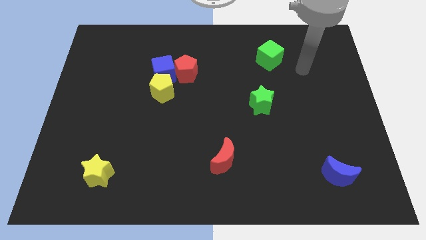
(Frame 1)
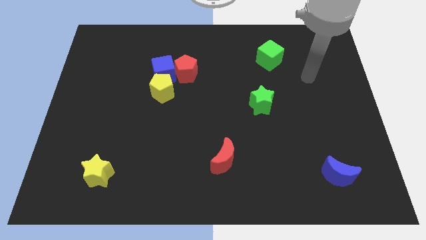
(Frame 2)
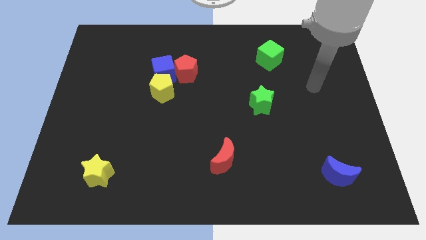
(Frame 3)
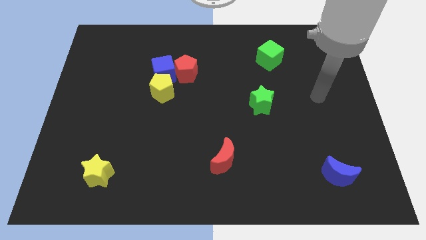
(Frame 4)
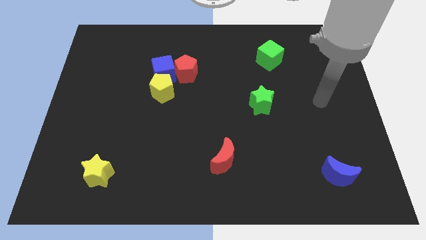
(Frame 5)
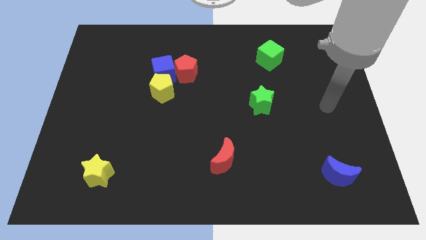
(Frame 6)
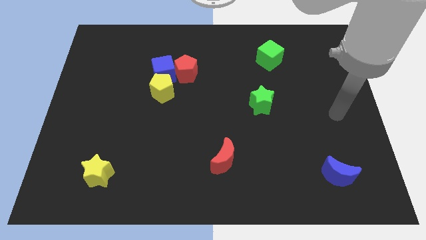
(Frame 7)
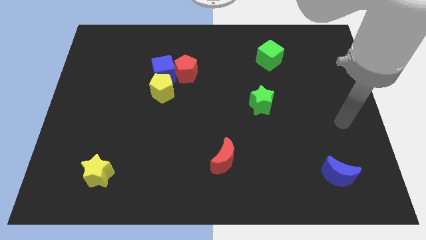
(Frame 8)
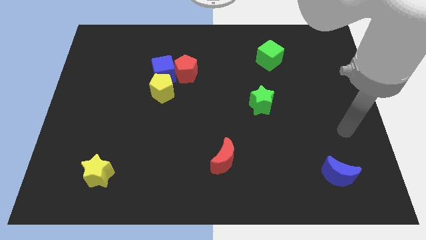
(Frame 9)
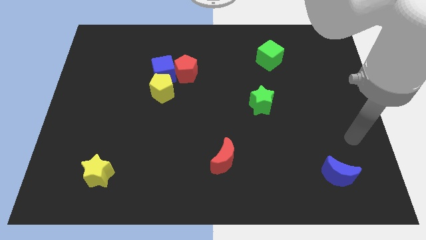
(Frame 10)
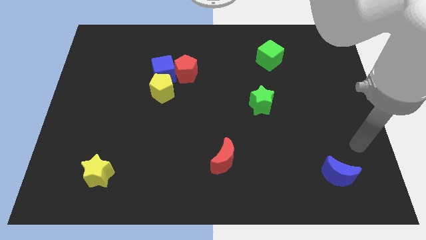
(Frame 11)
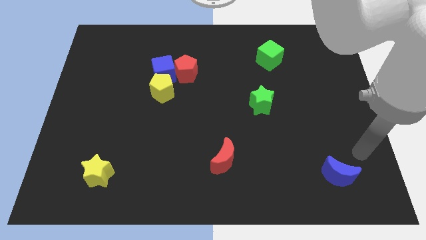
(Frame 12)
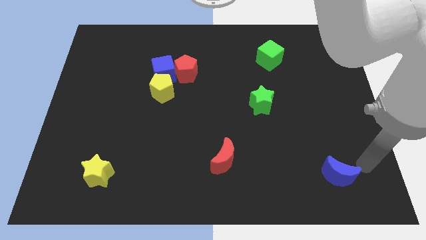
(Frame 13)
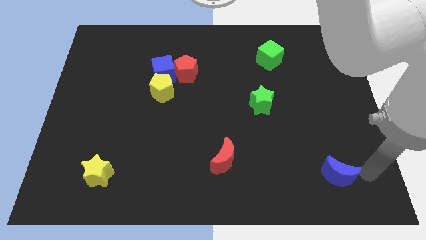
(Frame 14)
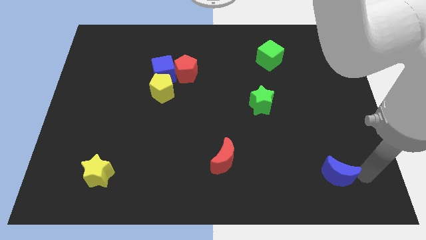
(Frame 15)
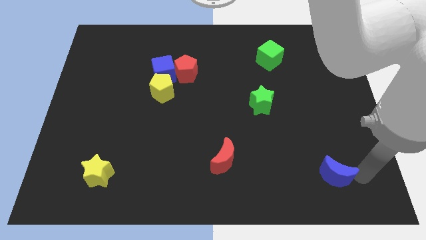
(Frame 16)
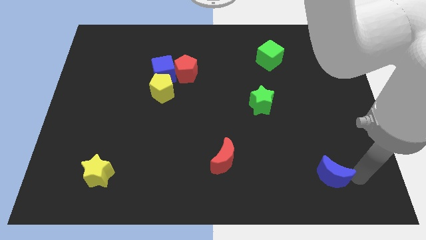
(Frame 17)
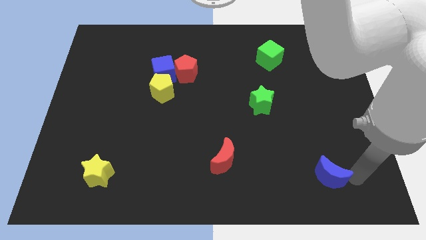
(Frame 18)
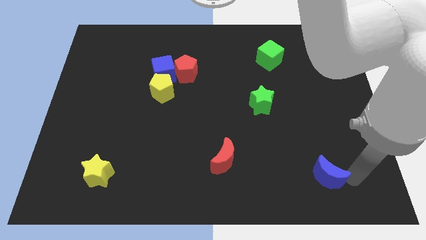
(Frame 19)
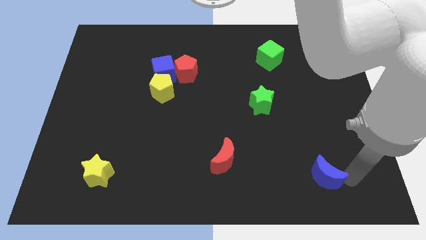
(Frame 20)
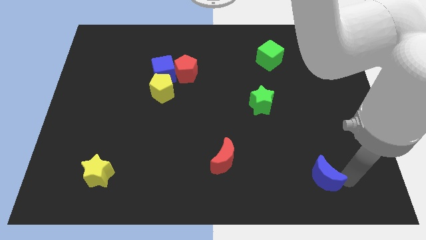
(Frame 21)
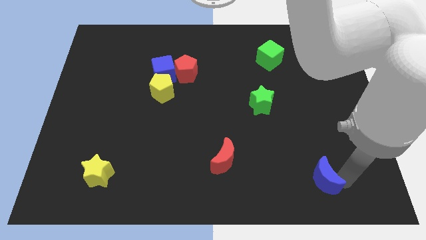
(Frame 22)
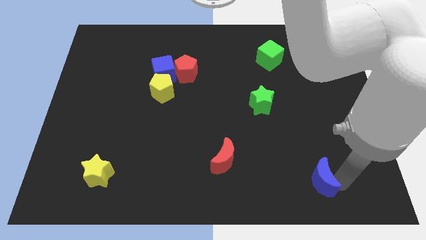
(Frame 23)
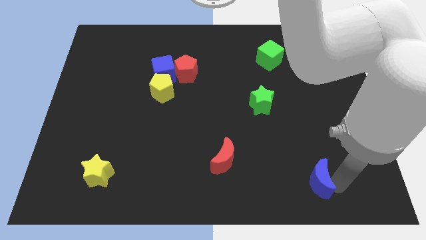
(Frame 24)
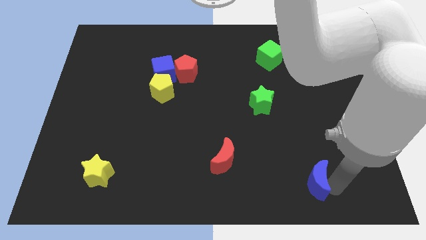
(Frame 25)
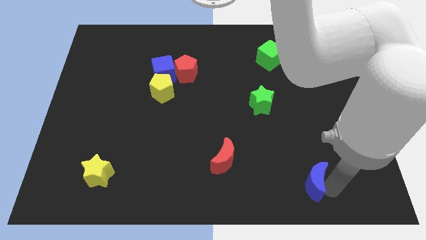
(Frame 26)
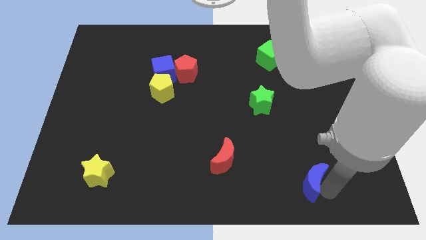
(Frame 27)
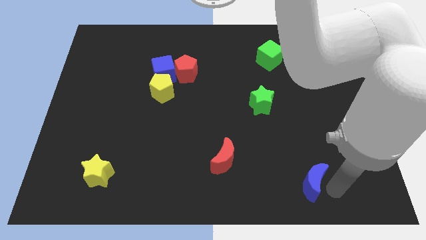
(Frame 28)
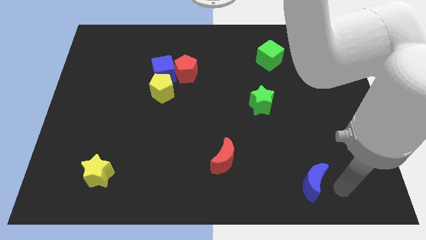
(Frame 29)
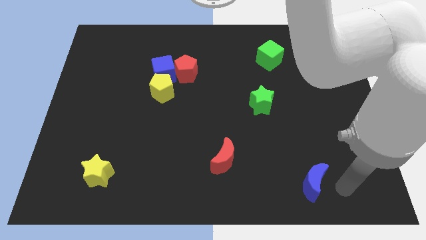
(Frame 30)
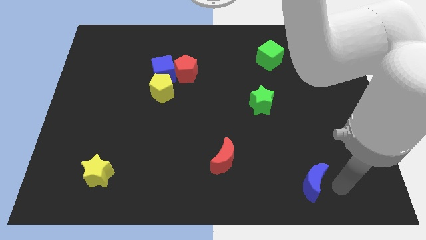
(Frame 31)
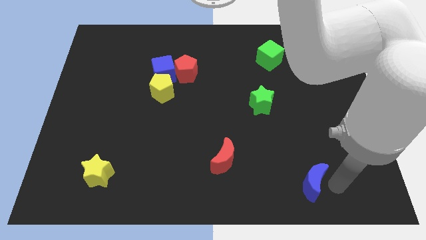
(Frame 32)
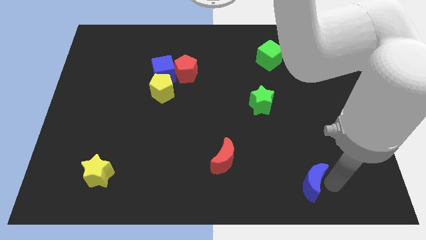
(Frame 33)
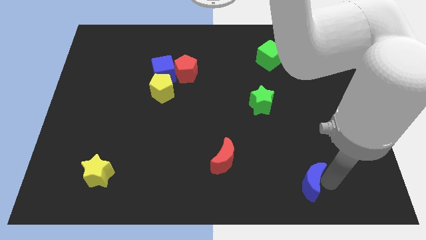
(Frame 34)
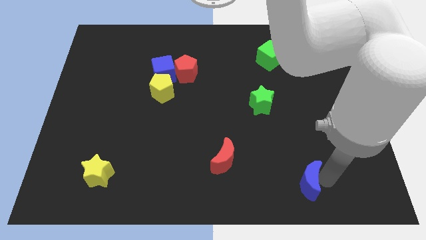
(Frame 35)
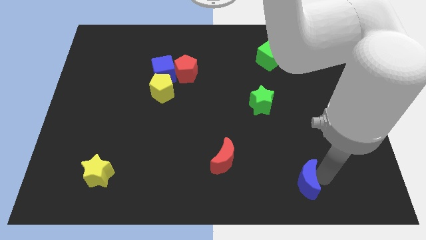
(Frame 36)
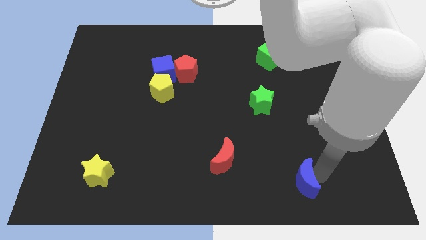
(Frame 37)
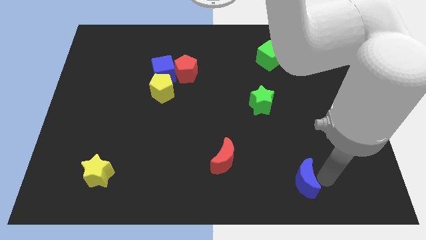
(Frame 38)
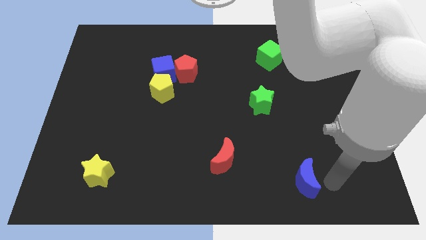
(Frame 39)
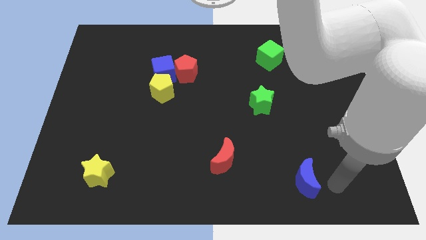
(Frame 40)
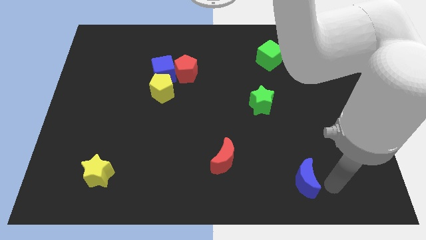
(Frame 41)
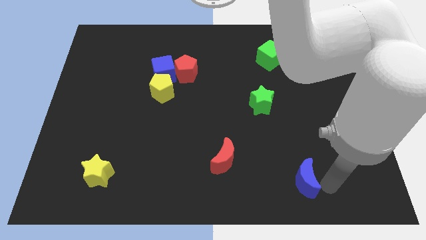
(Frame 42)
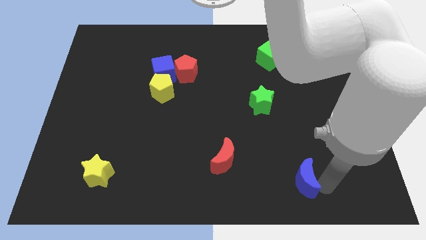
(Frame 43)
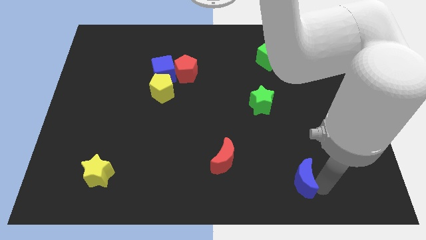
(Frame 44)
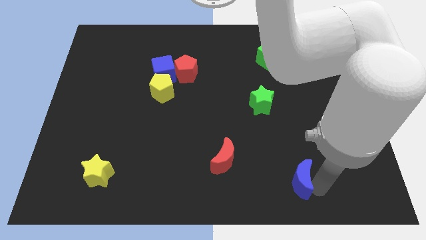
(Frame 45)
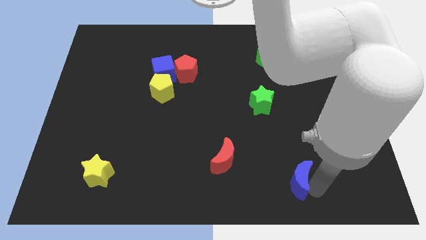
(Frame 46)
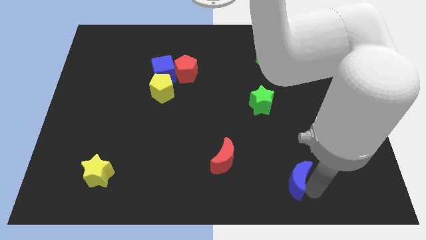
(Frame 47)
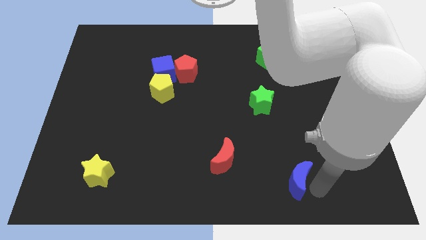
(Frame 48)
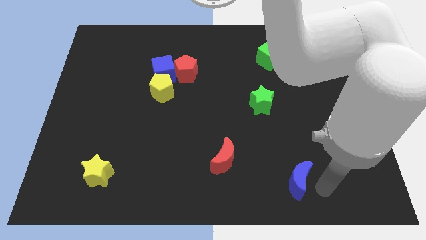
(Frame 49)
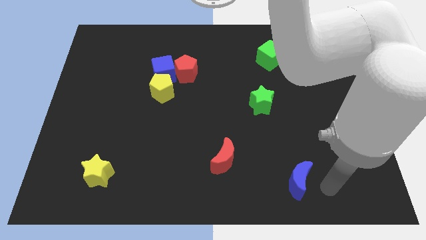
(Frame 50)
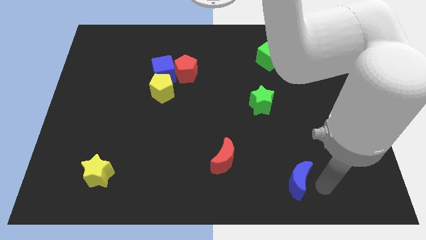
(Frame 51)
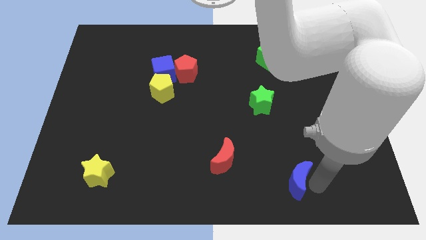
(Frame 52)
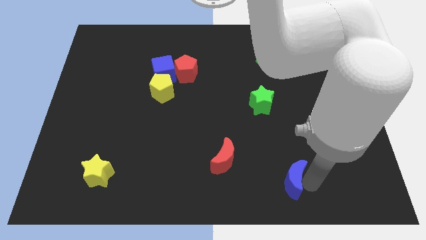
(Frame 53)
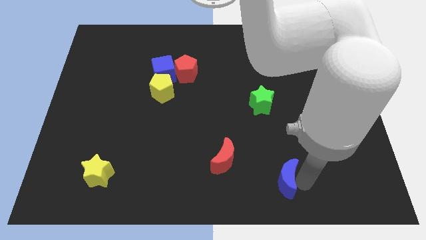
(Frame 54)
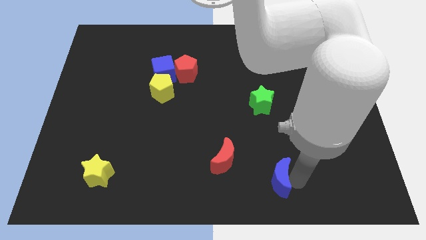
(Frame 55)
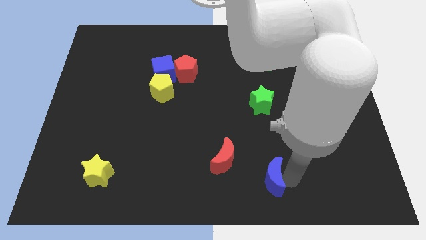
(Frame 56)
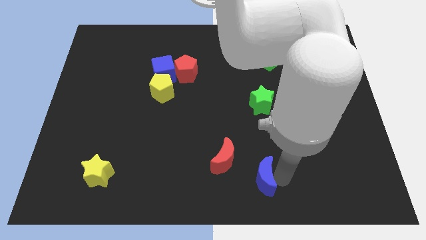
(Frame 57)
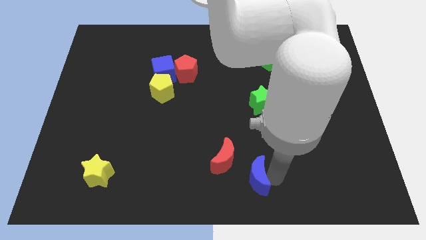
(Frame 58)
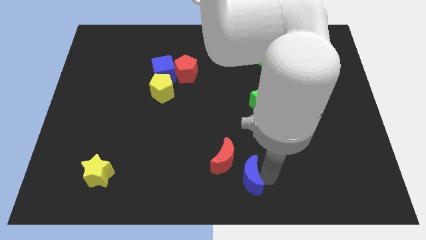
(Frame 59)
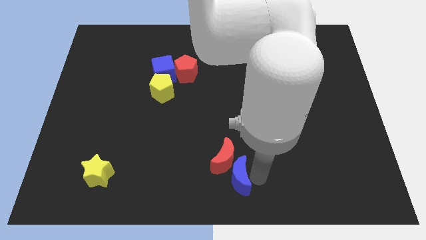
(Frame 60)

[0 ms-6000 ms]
slide the blue moon to the left

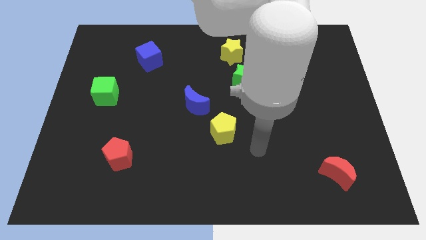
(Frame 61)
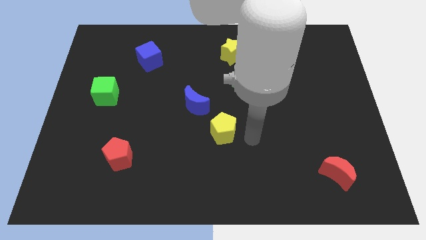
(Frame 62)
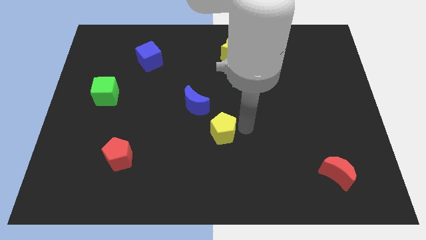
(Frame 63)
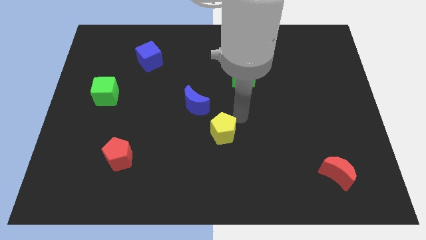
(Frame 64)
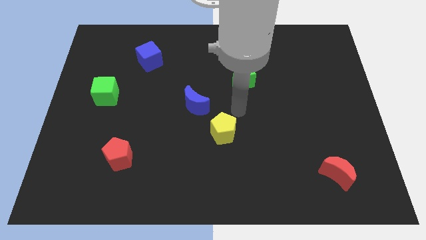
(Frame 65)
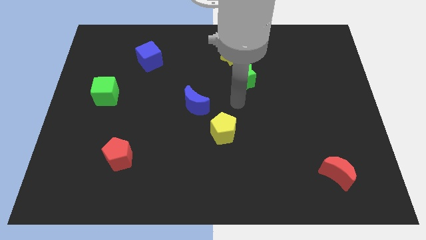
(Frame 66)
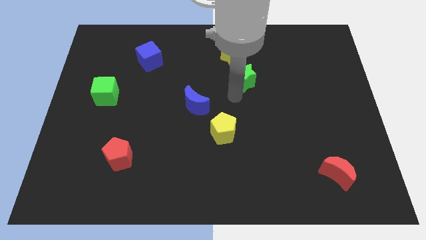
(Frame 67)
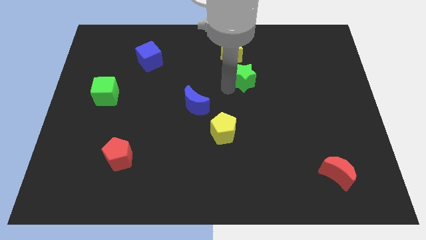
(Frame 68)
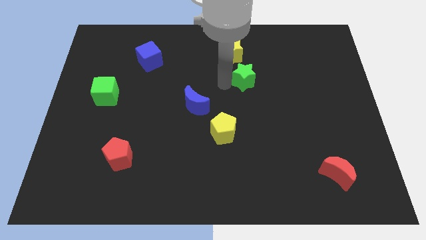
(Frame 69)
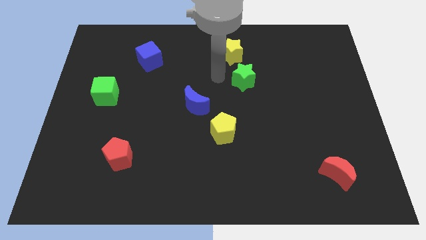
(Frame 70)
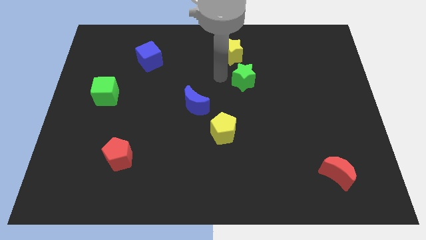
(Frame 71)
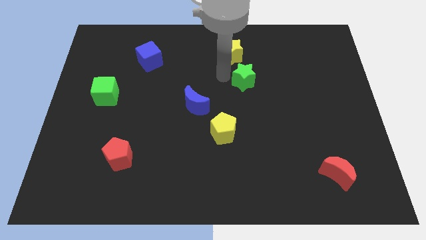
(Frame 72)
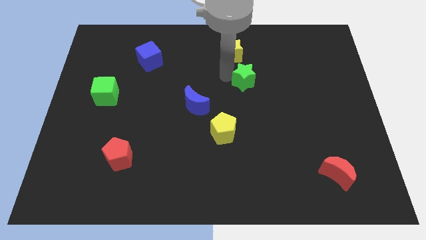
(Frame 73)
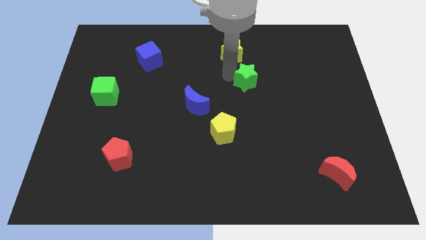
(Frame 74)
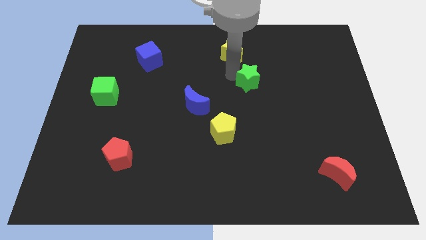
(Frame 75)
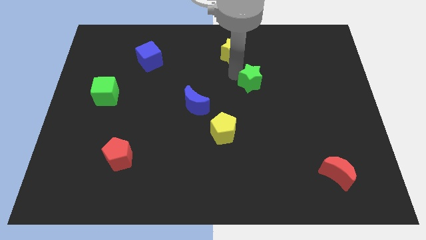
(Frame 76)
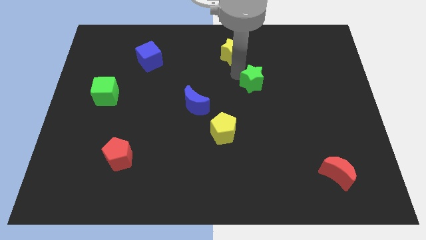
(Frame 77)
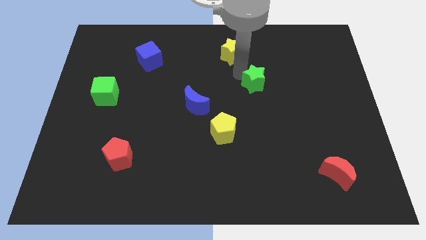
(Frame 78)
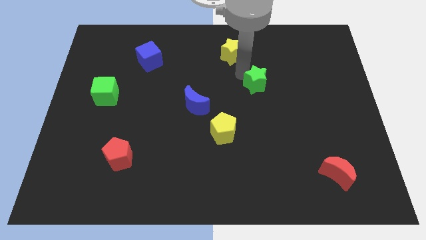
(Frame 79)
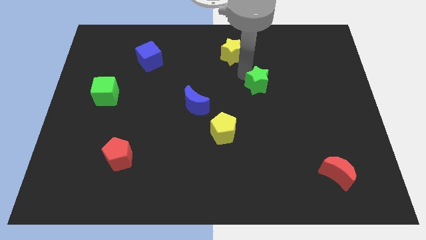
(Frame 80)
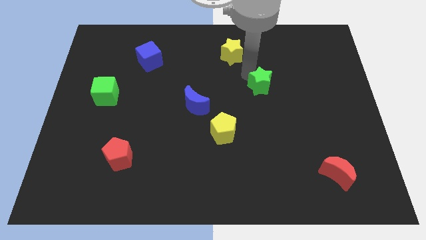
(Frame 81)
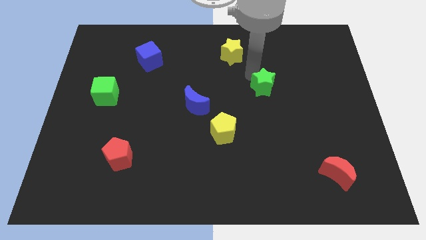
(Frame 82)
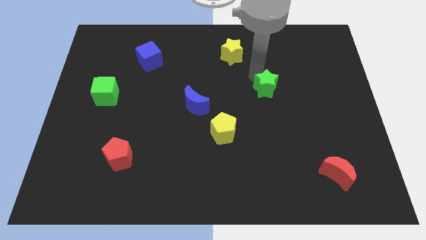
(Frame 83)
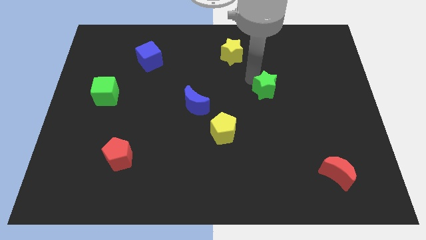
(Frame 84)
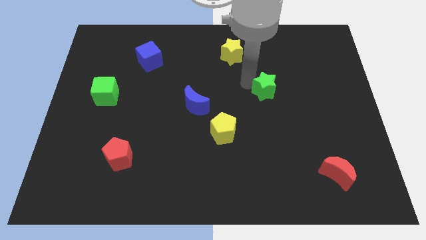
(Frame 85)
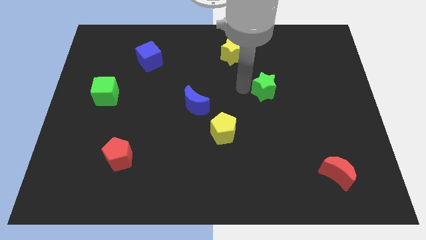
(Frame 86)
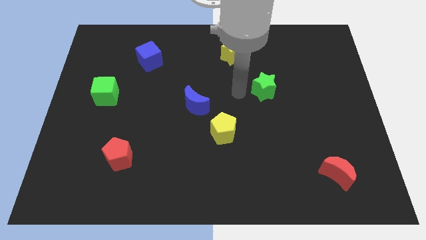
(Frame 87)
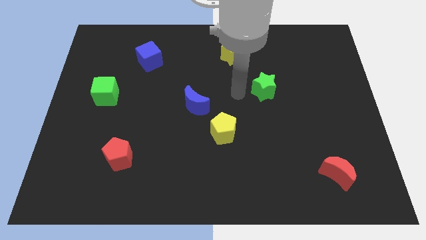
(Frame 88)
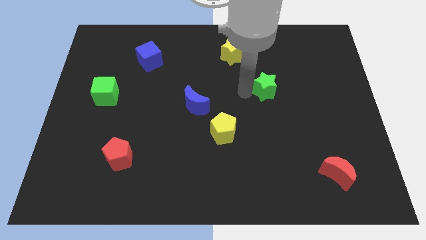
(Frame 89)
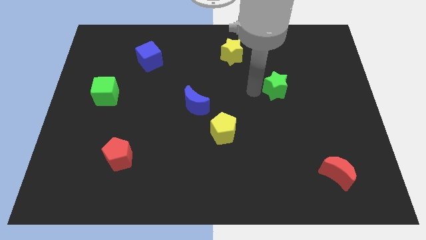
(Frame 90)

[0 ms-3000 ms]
slightly slide the green star to the right
